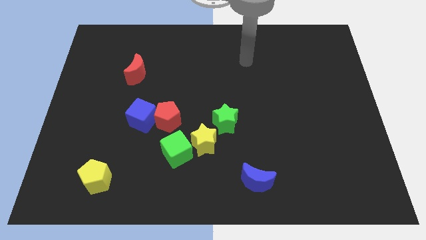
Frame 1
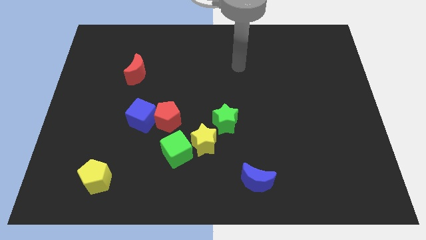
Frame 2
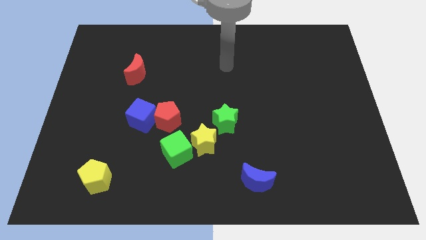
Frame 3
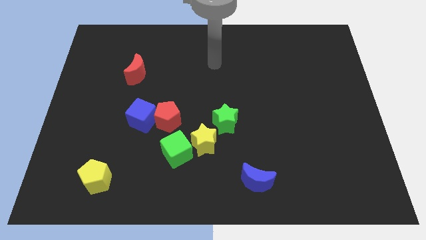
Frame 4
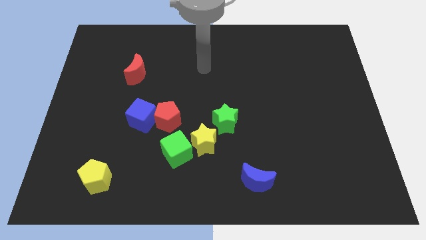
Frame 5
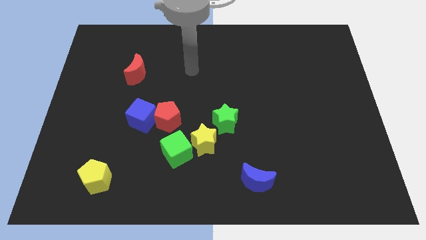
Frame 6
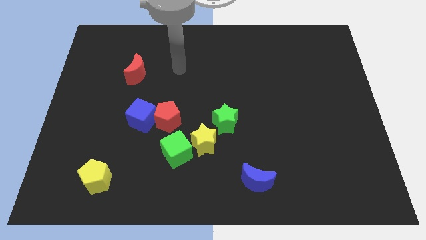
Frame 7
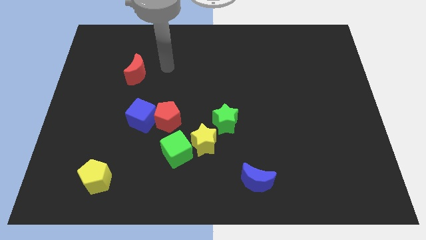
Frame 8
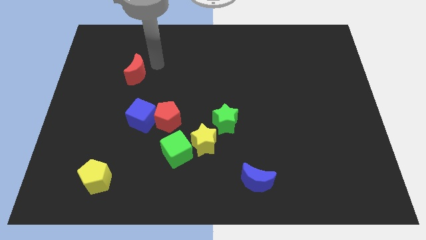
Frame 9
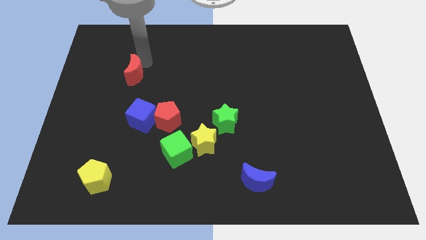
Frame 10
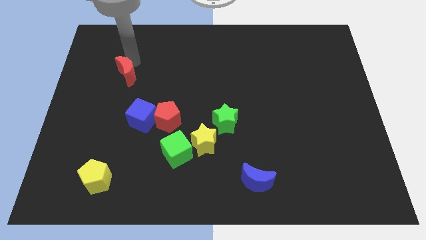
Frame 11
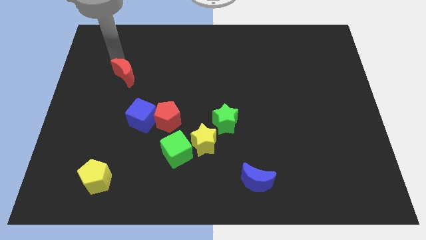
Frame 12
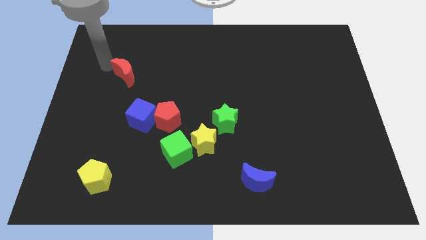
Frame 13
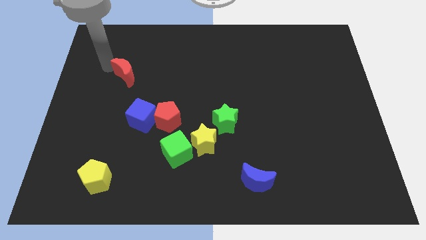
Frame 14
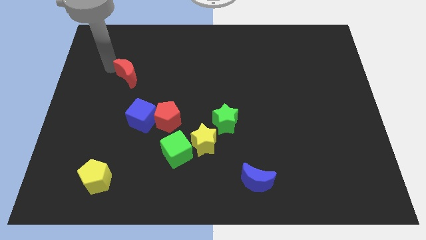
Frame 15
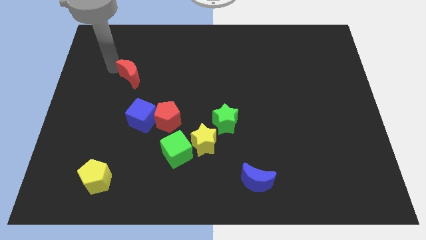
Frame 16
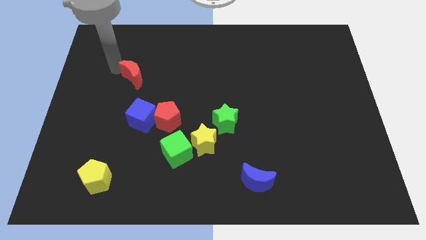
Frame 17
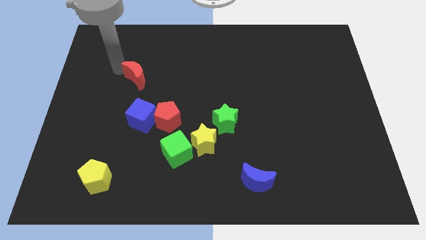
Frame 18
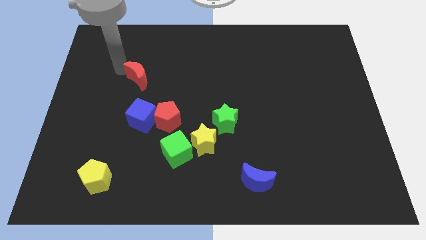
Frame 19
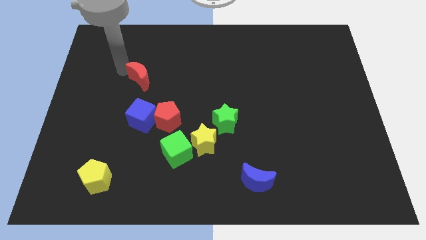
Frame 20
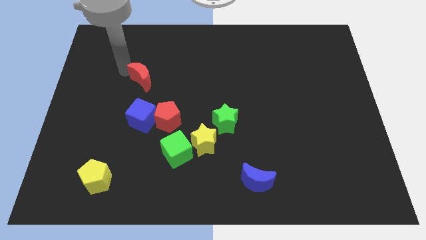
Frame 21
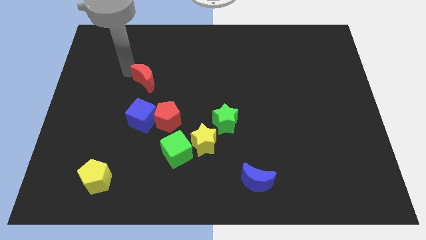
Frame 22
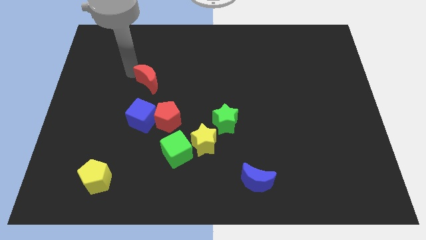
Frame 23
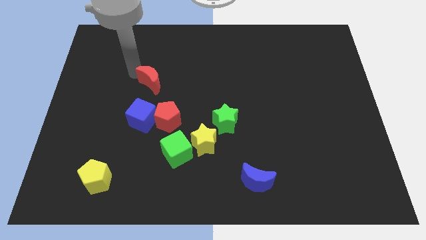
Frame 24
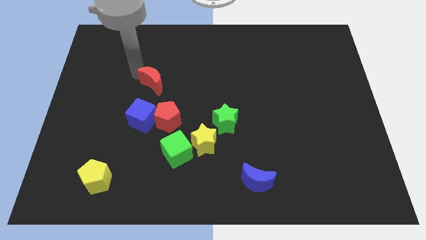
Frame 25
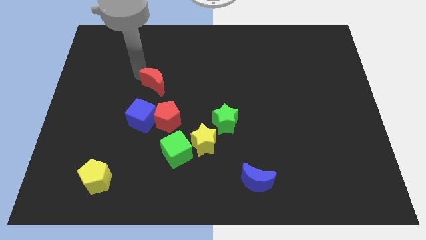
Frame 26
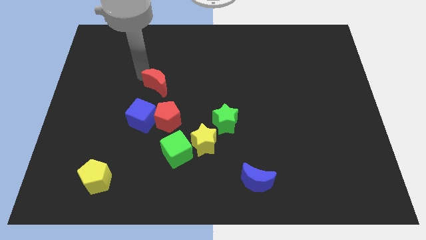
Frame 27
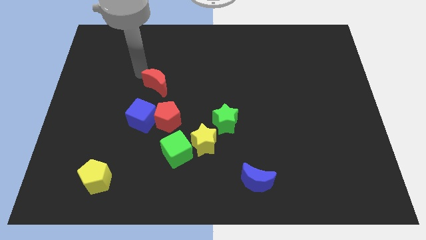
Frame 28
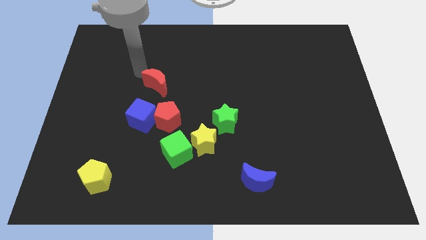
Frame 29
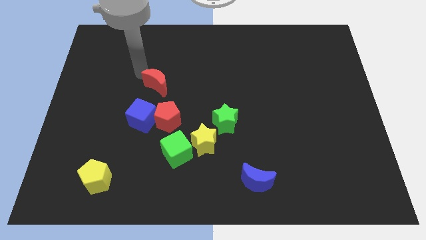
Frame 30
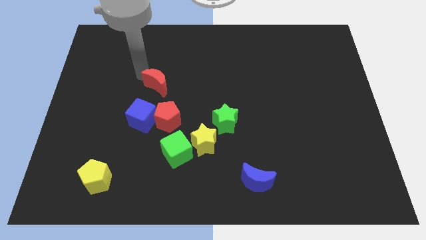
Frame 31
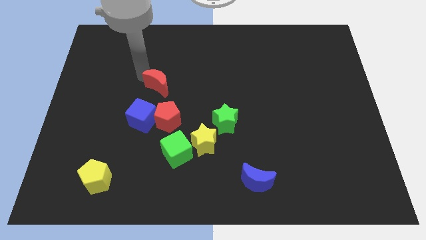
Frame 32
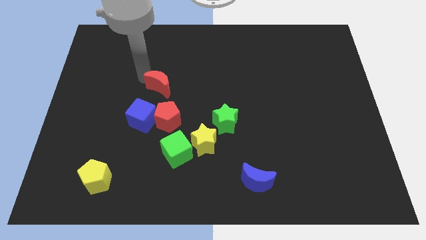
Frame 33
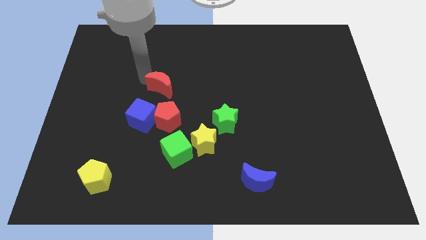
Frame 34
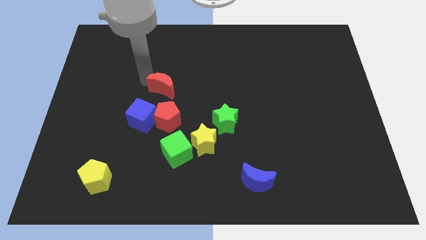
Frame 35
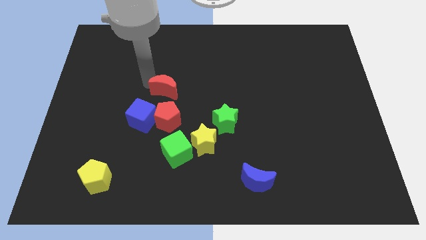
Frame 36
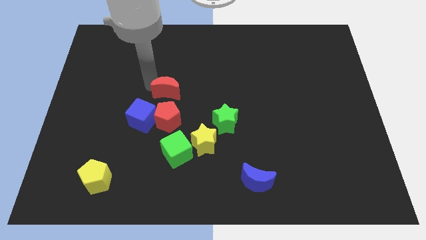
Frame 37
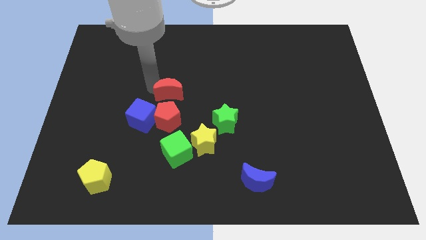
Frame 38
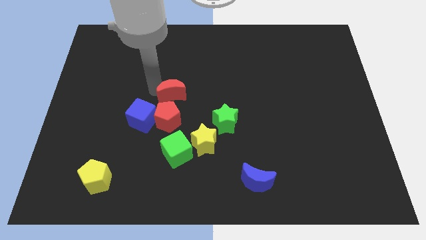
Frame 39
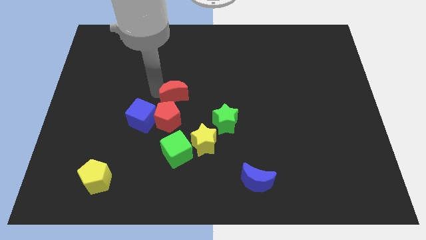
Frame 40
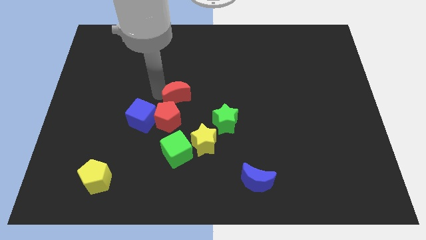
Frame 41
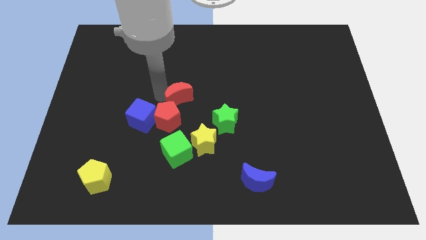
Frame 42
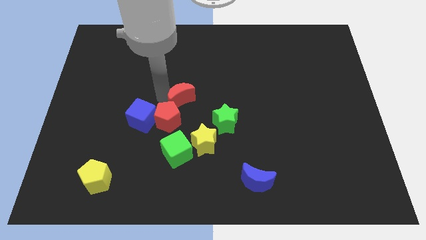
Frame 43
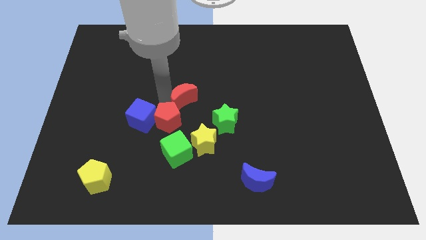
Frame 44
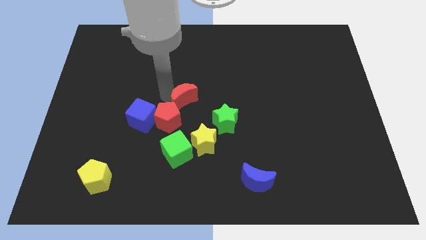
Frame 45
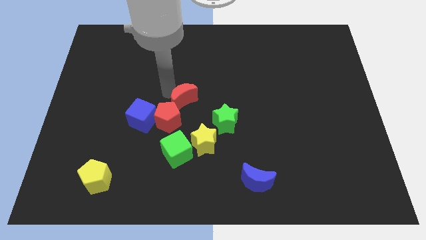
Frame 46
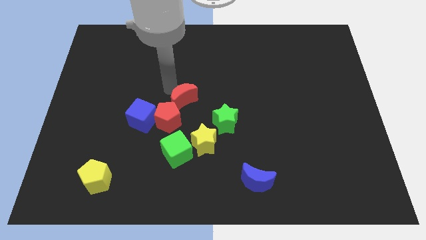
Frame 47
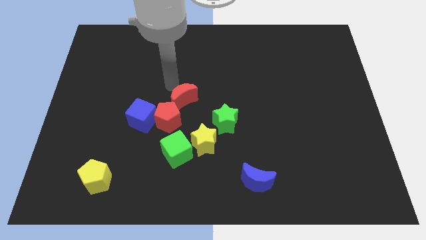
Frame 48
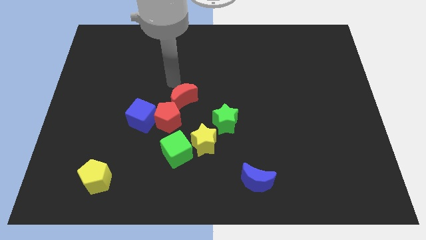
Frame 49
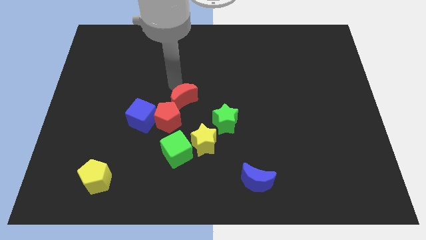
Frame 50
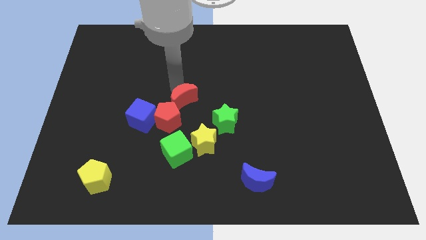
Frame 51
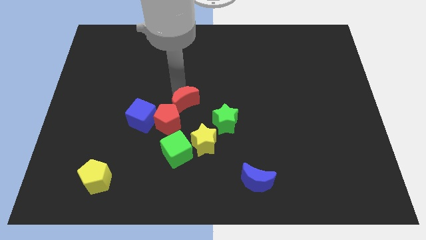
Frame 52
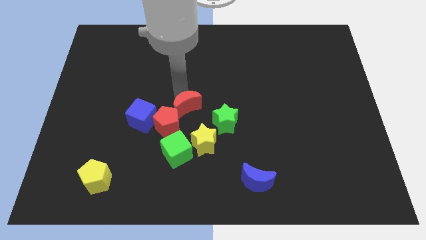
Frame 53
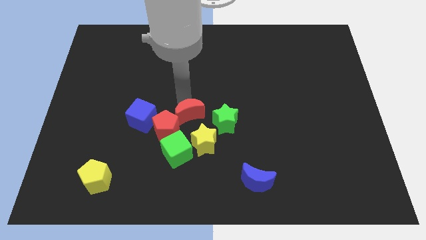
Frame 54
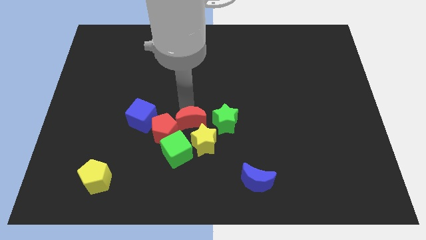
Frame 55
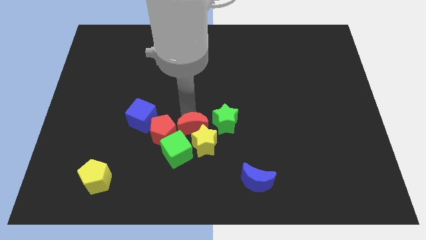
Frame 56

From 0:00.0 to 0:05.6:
move the red moon to the yellow star

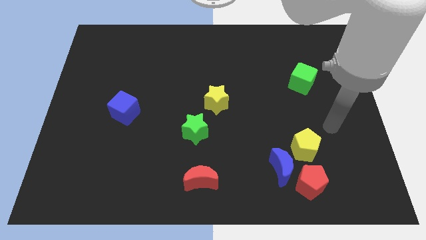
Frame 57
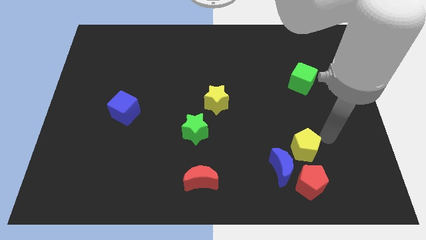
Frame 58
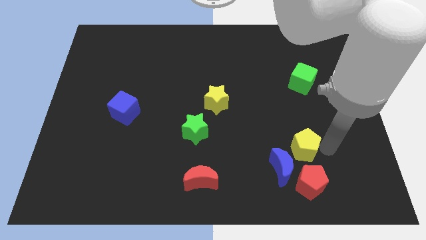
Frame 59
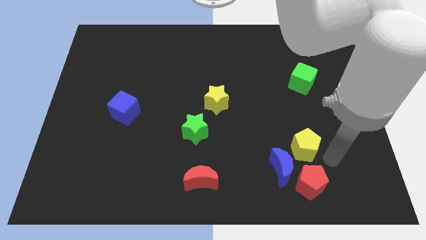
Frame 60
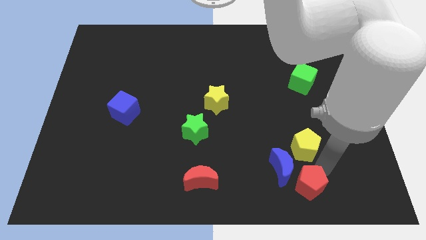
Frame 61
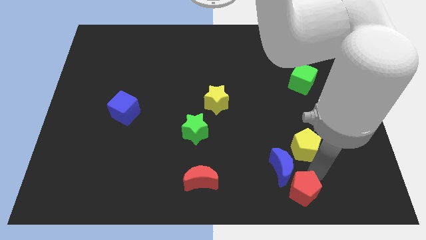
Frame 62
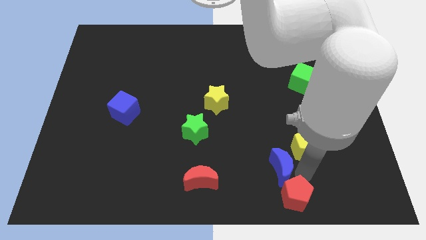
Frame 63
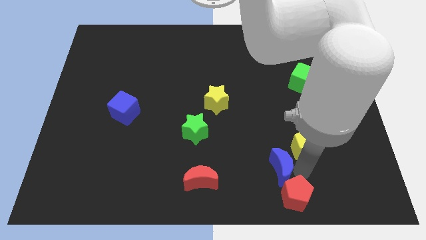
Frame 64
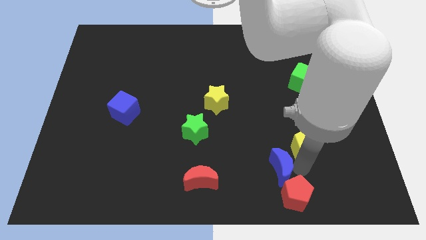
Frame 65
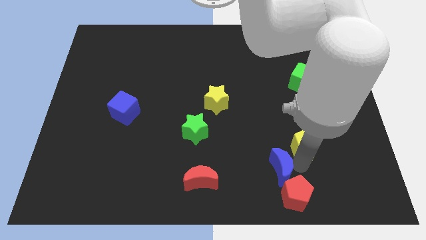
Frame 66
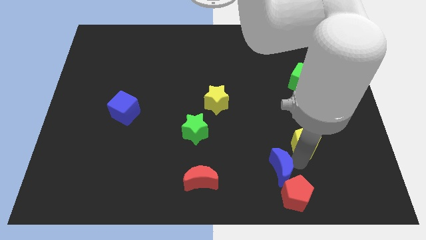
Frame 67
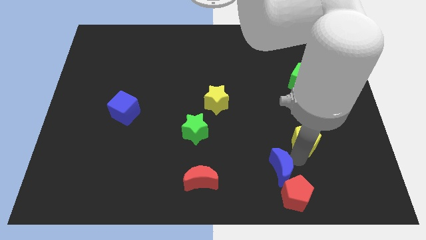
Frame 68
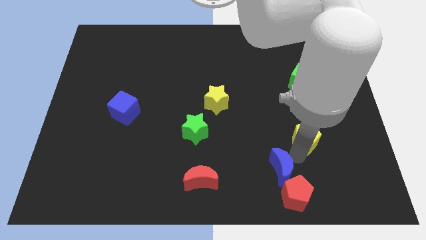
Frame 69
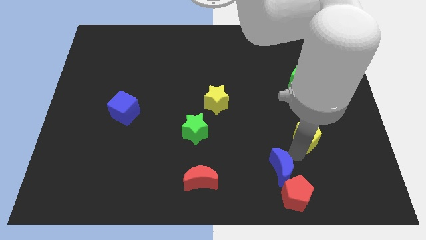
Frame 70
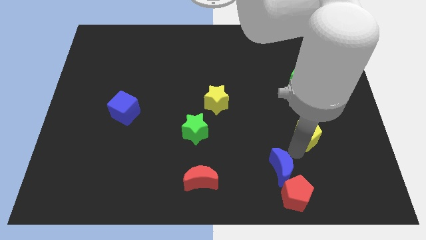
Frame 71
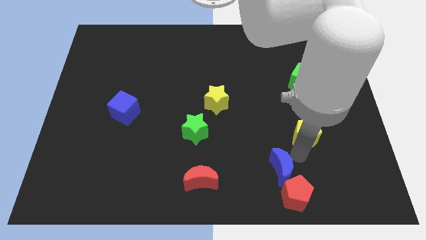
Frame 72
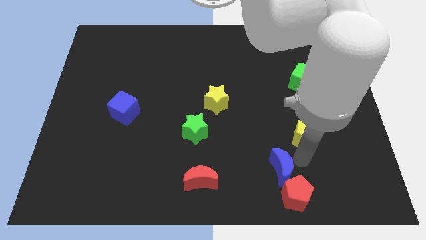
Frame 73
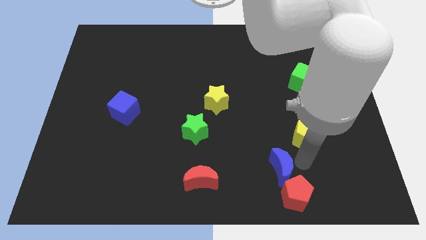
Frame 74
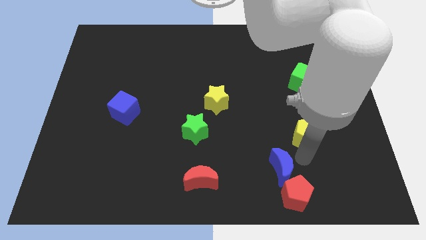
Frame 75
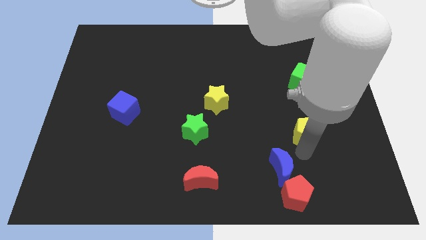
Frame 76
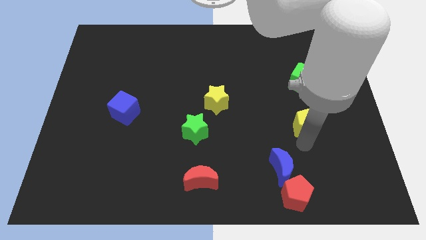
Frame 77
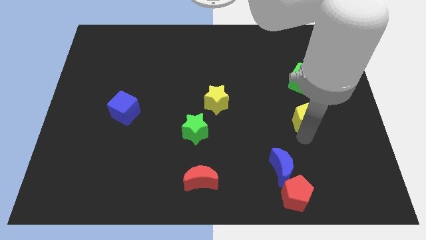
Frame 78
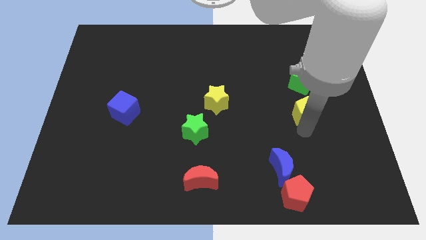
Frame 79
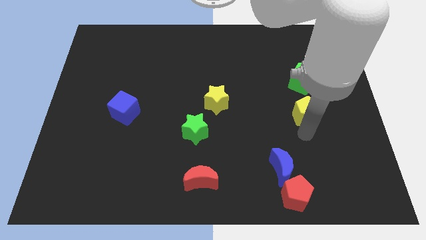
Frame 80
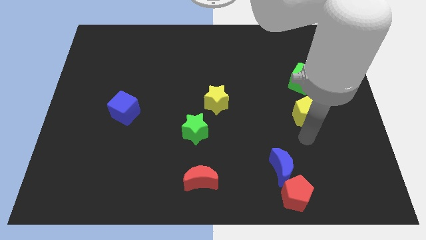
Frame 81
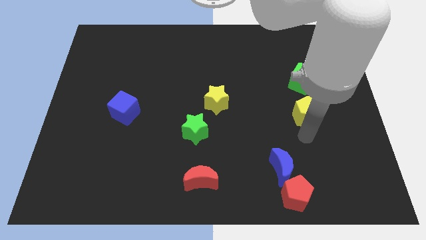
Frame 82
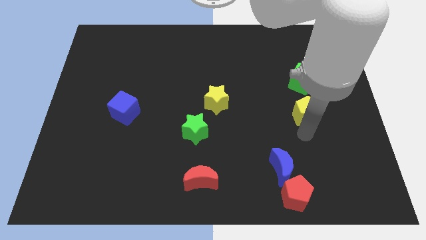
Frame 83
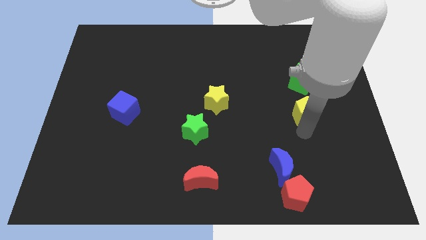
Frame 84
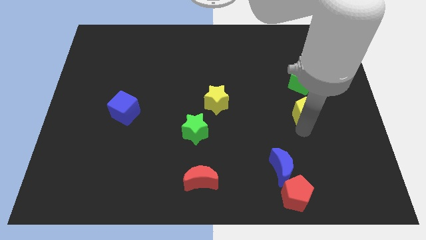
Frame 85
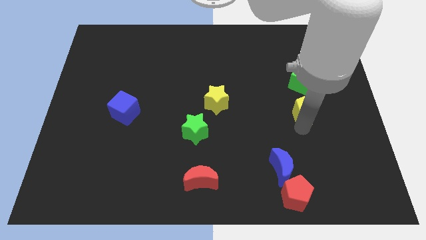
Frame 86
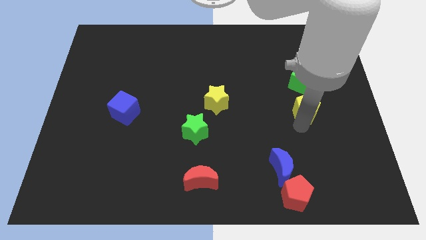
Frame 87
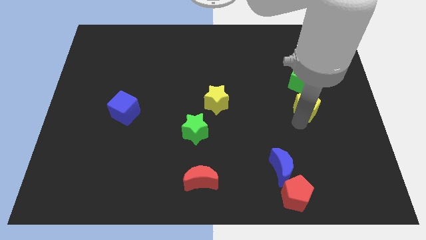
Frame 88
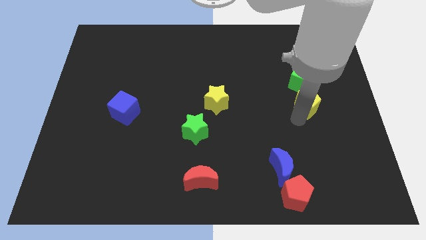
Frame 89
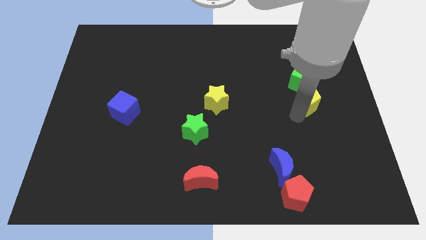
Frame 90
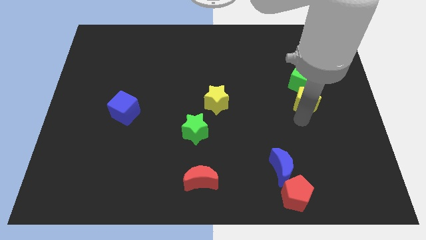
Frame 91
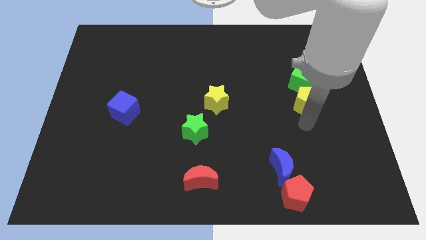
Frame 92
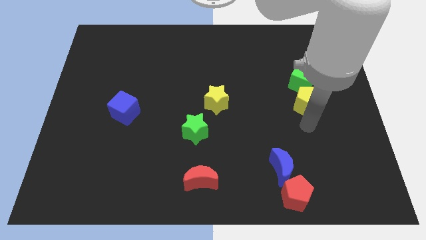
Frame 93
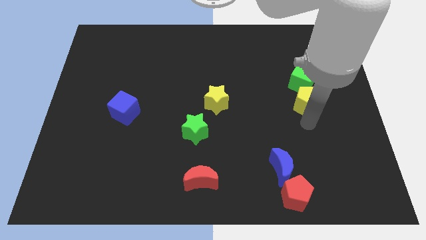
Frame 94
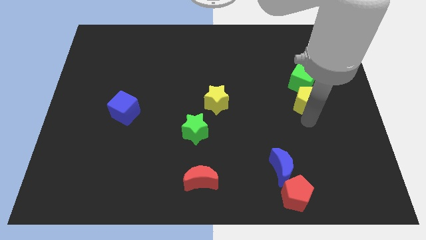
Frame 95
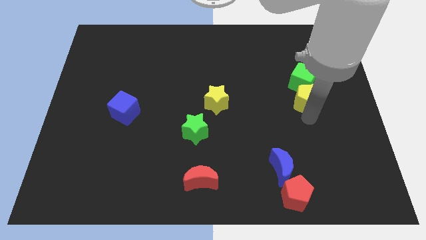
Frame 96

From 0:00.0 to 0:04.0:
move the yellow pentagon close to the green cube
